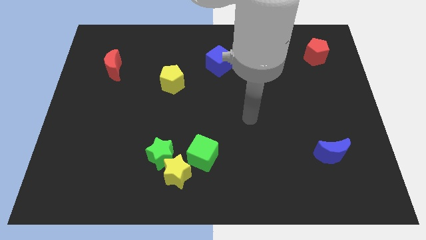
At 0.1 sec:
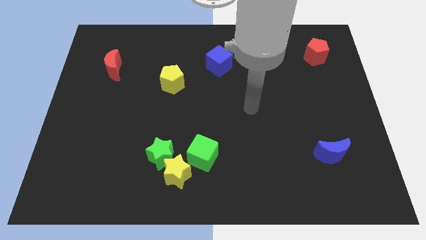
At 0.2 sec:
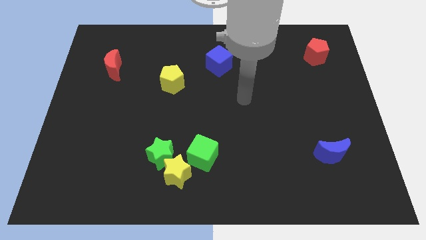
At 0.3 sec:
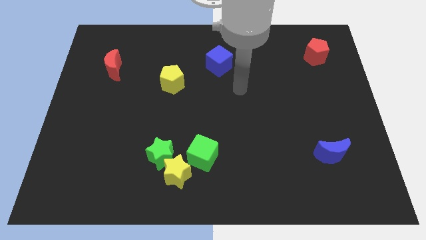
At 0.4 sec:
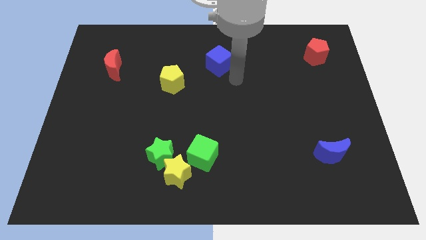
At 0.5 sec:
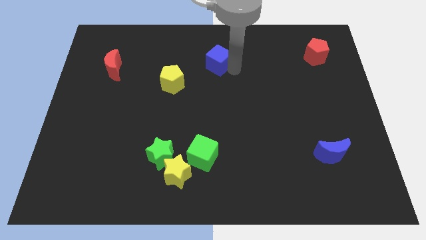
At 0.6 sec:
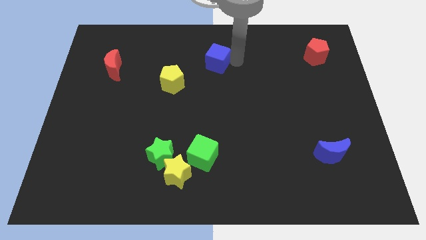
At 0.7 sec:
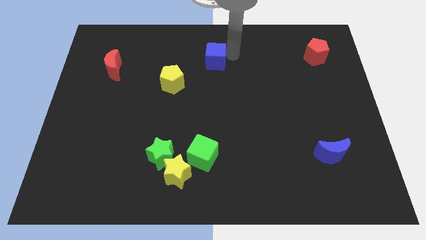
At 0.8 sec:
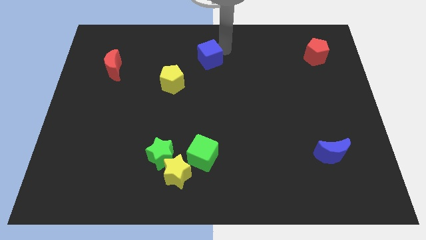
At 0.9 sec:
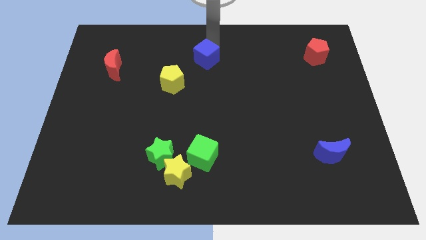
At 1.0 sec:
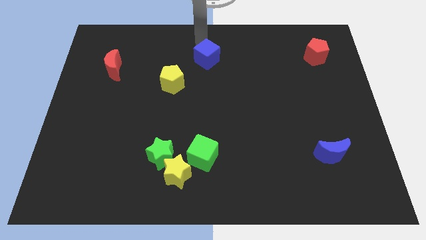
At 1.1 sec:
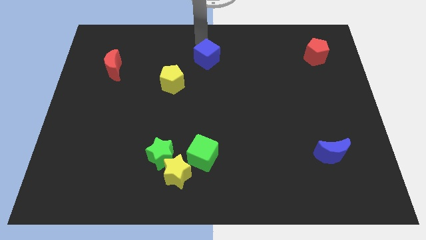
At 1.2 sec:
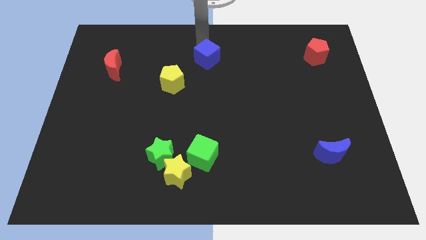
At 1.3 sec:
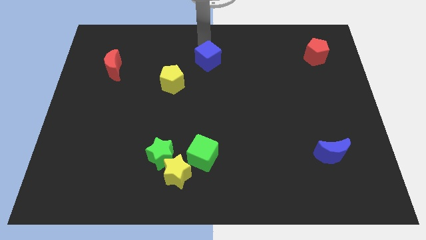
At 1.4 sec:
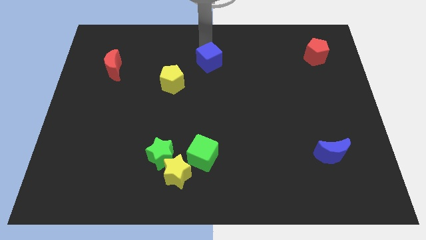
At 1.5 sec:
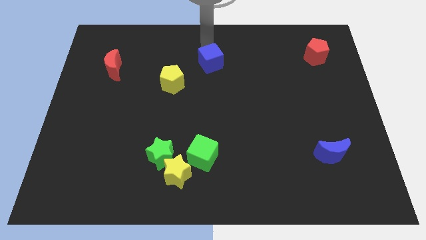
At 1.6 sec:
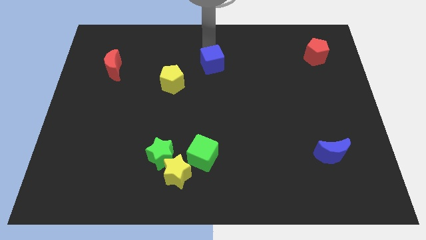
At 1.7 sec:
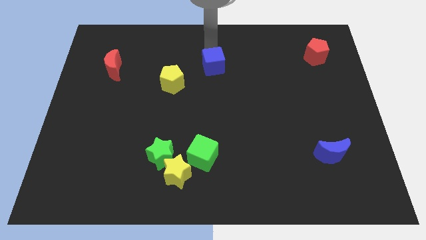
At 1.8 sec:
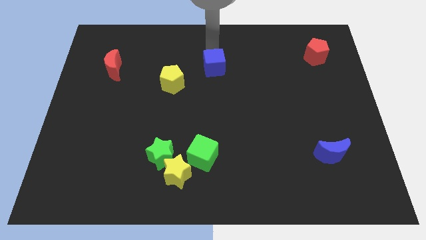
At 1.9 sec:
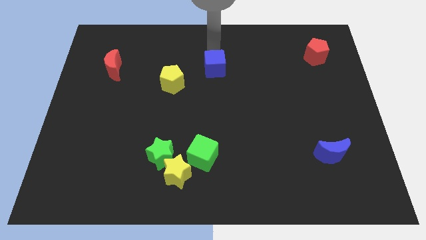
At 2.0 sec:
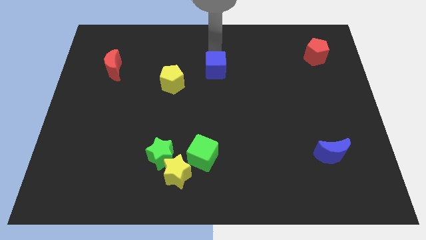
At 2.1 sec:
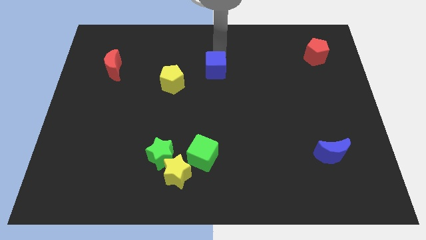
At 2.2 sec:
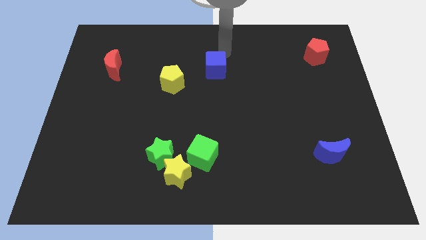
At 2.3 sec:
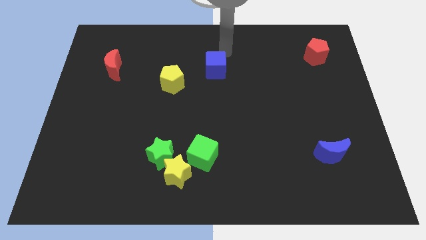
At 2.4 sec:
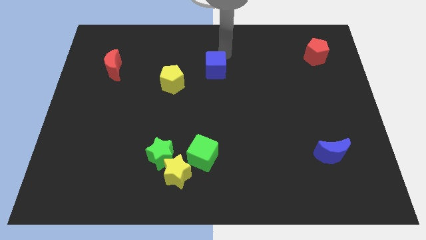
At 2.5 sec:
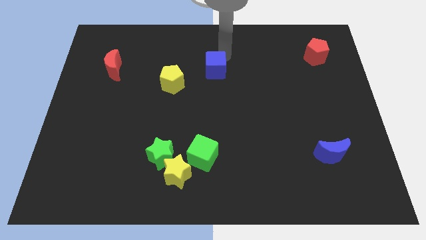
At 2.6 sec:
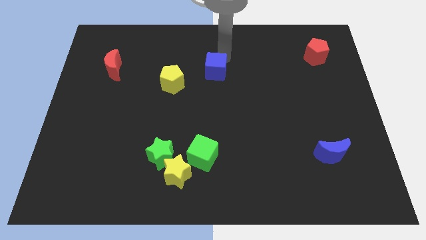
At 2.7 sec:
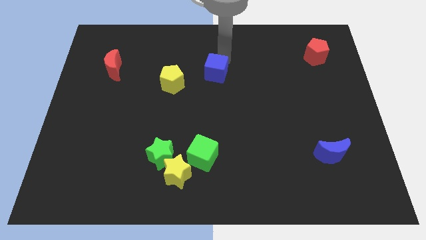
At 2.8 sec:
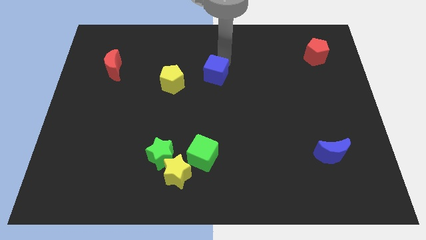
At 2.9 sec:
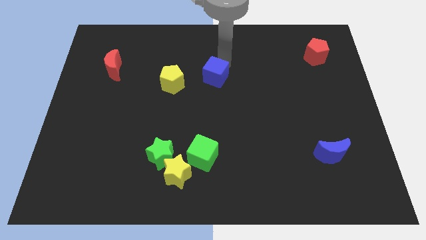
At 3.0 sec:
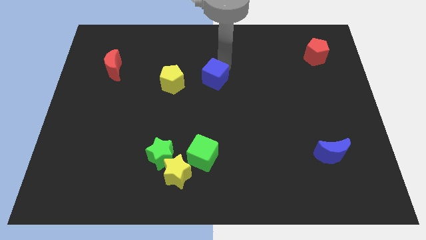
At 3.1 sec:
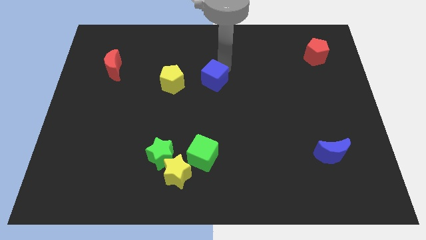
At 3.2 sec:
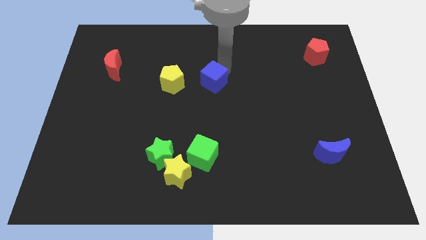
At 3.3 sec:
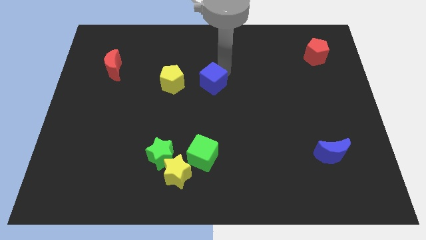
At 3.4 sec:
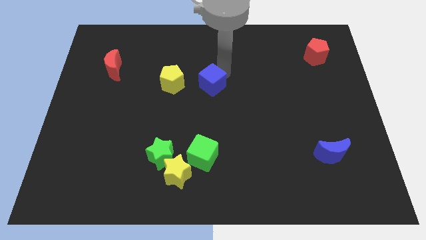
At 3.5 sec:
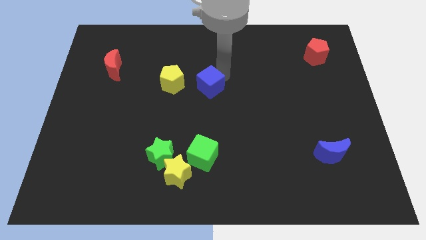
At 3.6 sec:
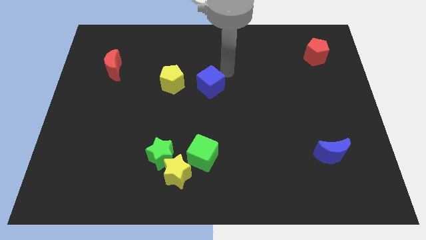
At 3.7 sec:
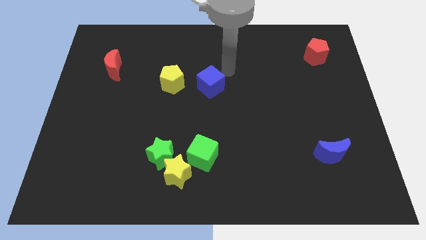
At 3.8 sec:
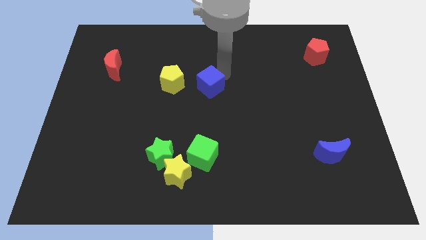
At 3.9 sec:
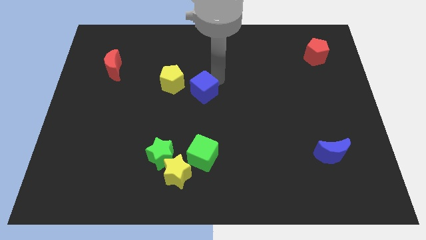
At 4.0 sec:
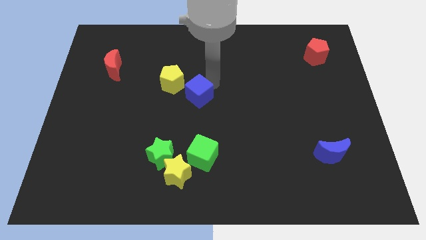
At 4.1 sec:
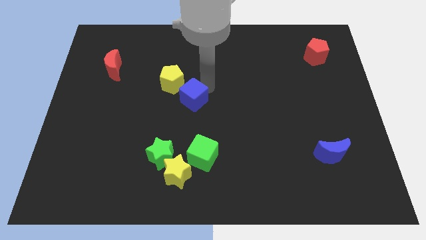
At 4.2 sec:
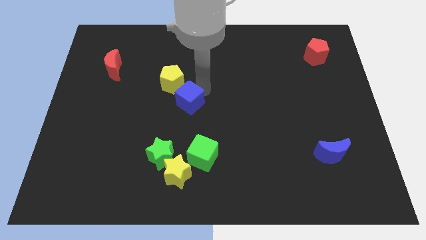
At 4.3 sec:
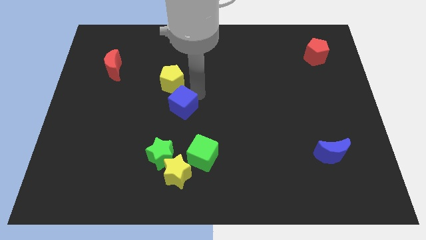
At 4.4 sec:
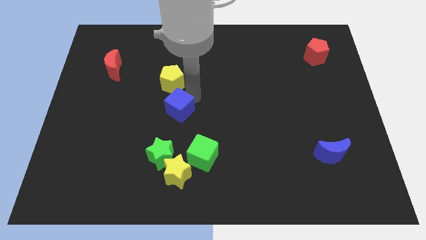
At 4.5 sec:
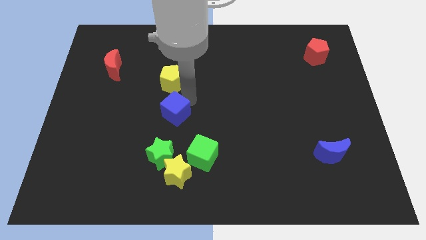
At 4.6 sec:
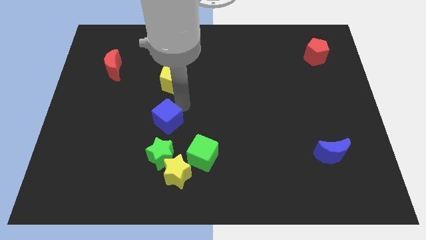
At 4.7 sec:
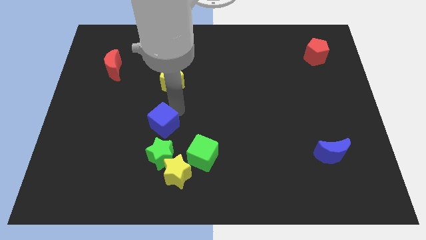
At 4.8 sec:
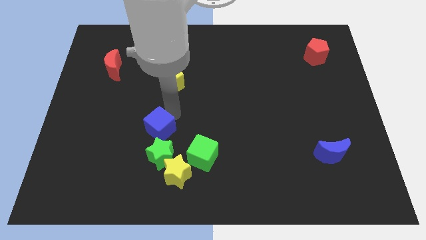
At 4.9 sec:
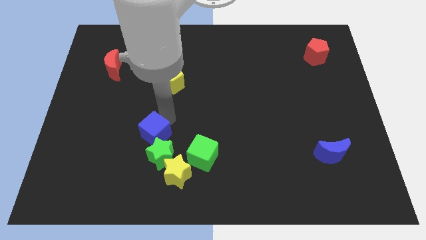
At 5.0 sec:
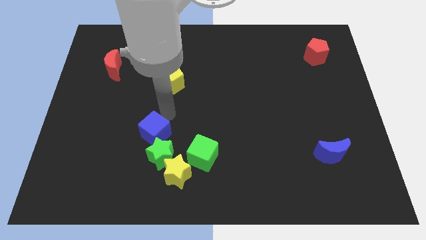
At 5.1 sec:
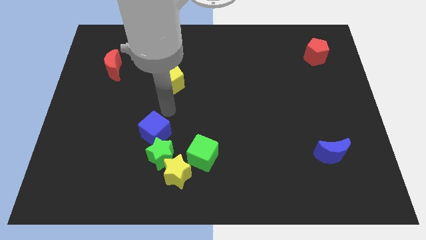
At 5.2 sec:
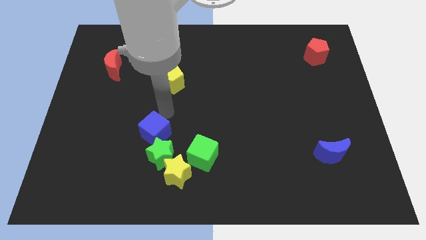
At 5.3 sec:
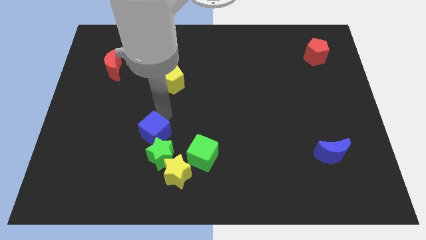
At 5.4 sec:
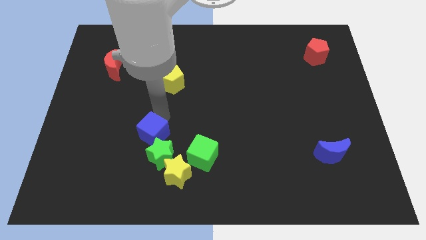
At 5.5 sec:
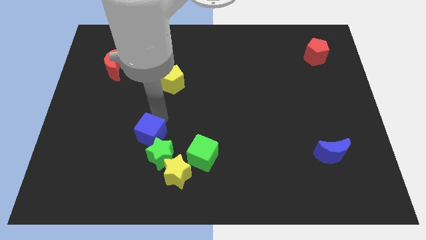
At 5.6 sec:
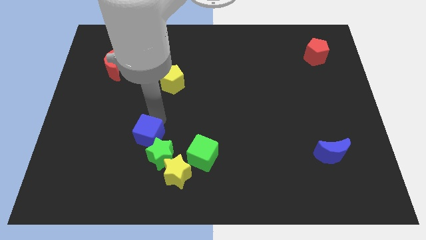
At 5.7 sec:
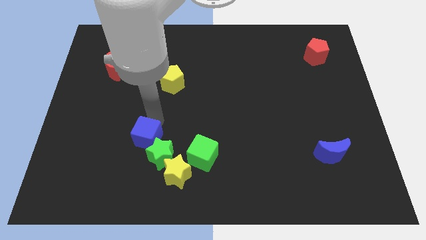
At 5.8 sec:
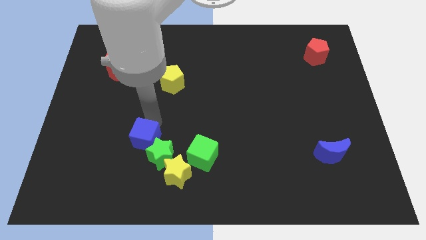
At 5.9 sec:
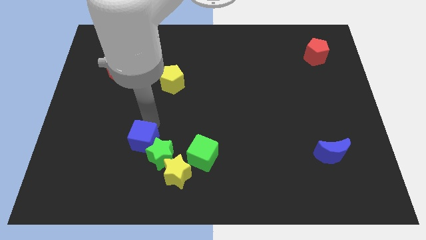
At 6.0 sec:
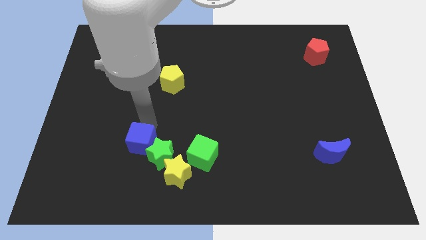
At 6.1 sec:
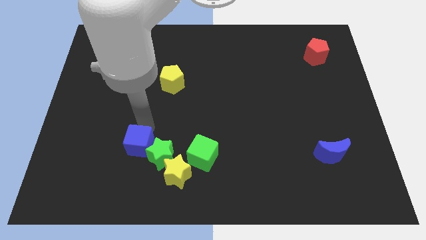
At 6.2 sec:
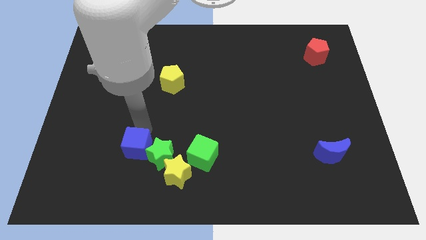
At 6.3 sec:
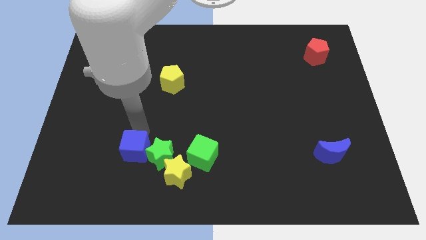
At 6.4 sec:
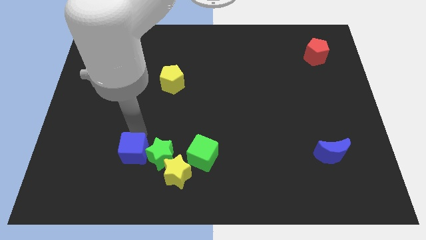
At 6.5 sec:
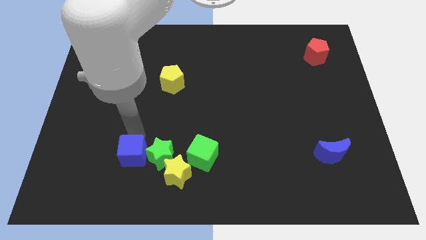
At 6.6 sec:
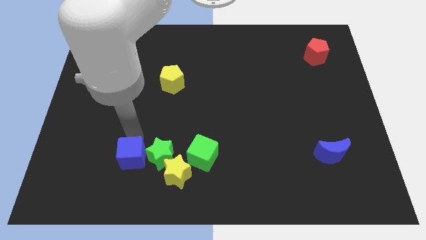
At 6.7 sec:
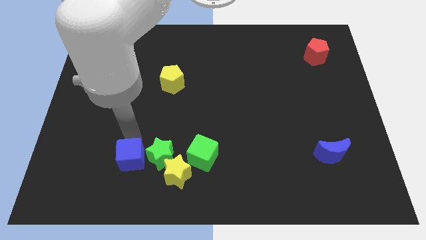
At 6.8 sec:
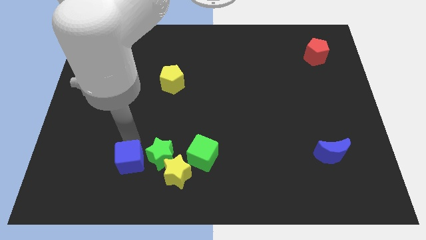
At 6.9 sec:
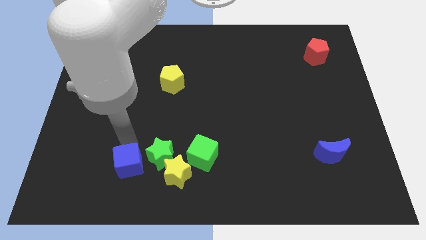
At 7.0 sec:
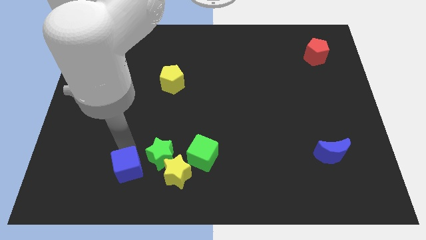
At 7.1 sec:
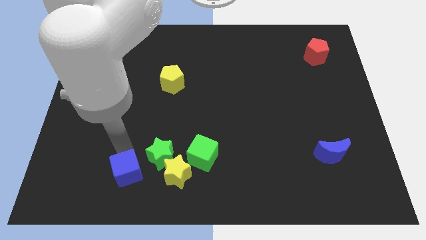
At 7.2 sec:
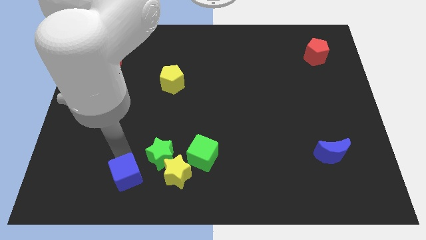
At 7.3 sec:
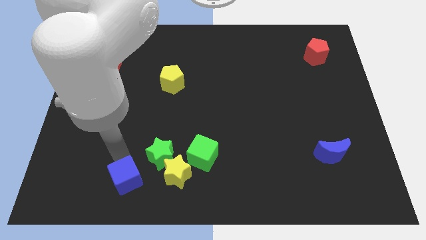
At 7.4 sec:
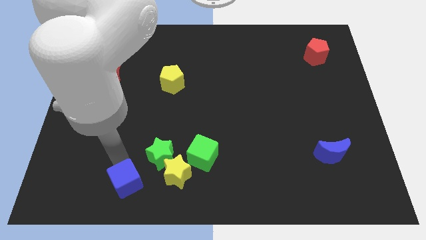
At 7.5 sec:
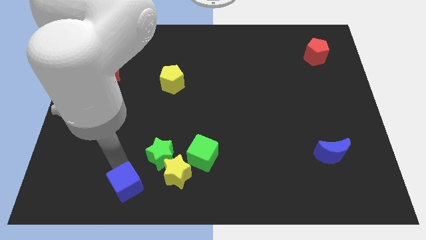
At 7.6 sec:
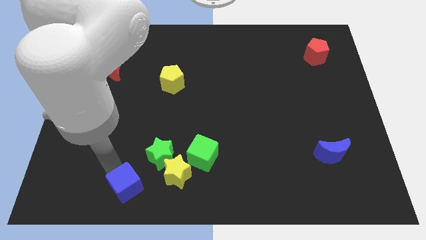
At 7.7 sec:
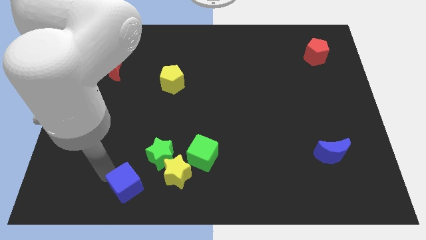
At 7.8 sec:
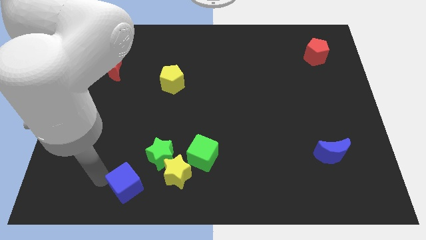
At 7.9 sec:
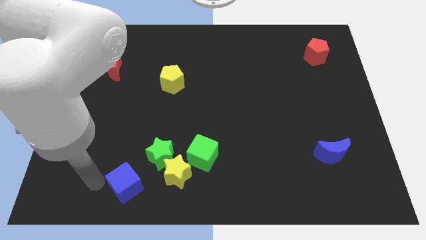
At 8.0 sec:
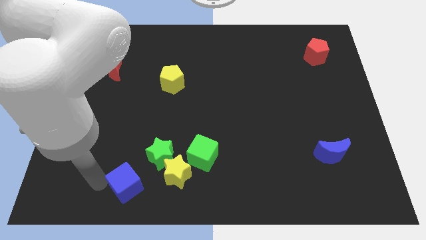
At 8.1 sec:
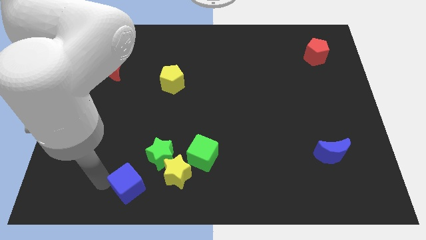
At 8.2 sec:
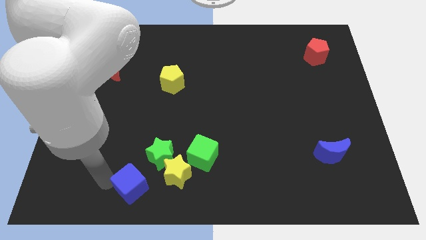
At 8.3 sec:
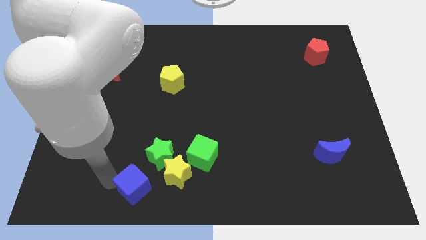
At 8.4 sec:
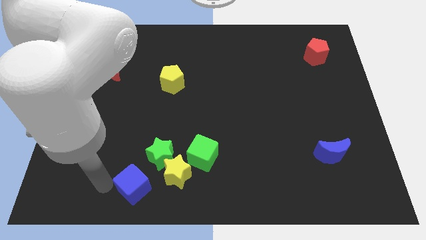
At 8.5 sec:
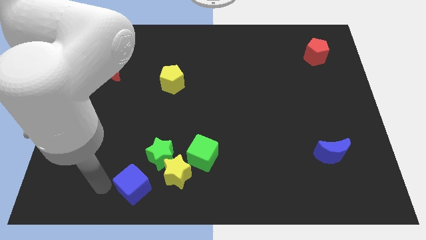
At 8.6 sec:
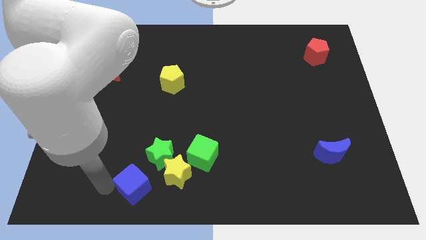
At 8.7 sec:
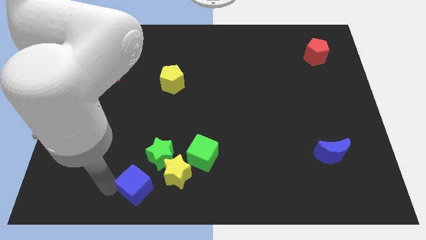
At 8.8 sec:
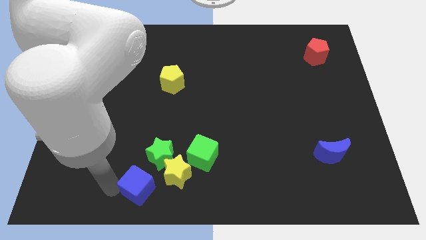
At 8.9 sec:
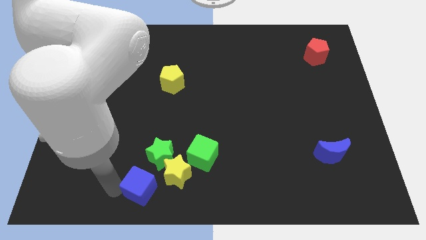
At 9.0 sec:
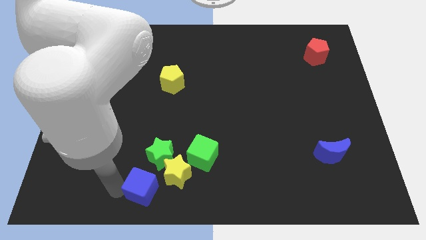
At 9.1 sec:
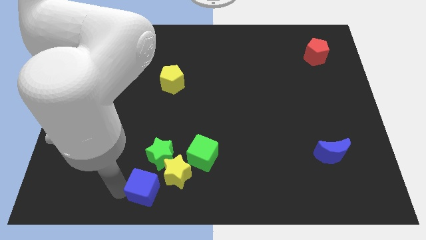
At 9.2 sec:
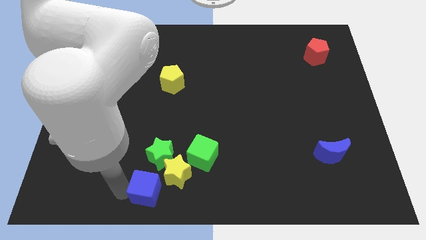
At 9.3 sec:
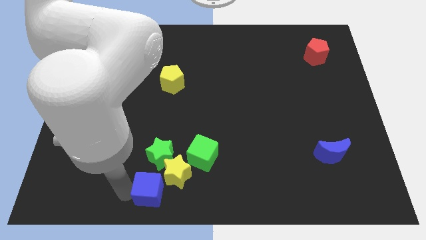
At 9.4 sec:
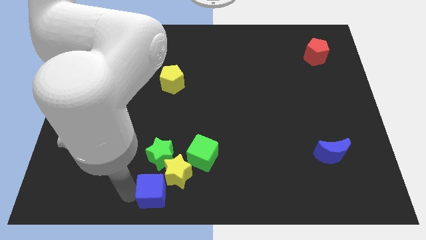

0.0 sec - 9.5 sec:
slide the blue cube diagonally down and to the left of the green cube
